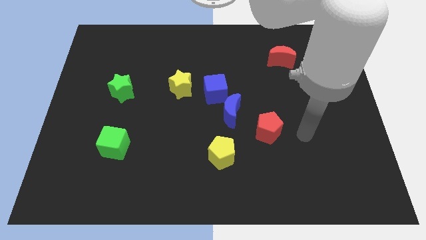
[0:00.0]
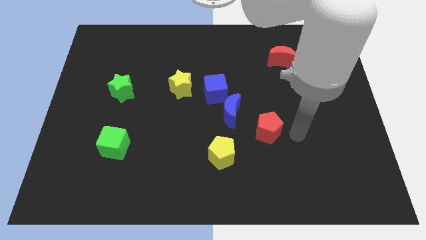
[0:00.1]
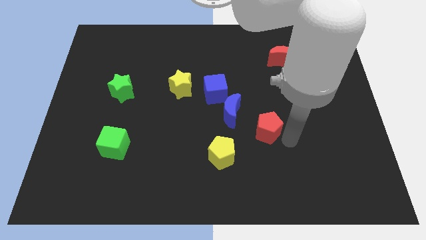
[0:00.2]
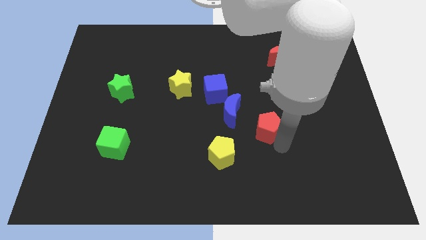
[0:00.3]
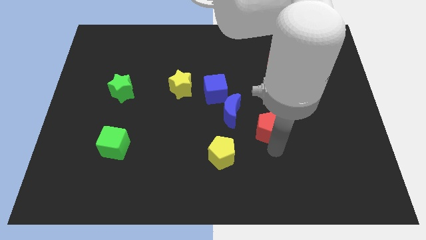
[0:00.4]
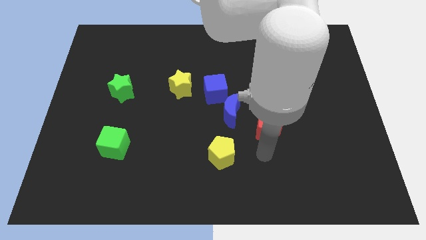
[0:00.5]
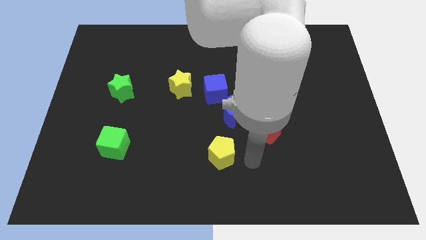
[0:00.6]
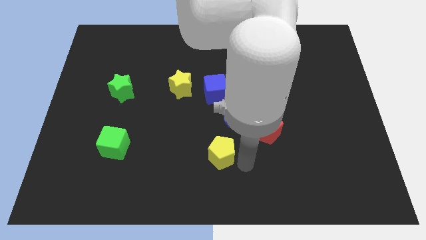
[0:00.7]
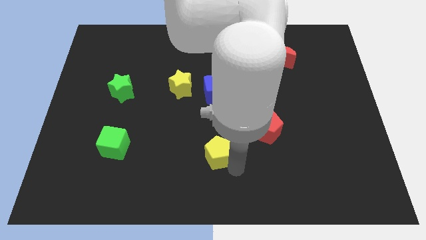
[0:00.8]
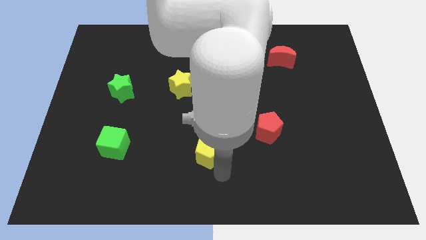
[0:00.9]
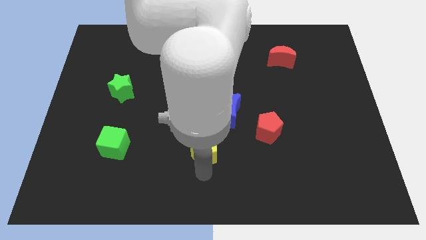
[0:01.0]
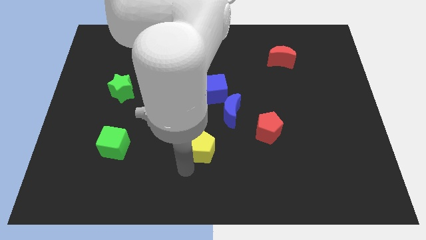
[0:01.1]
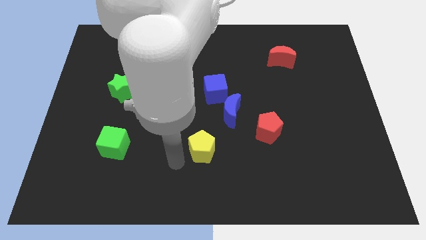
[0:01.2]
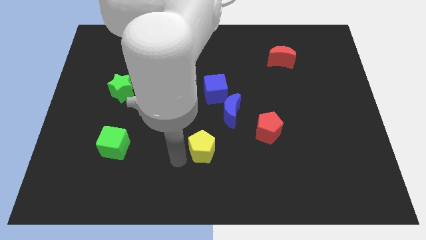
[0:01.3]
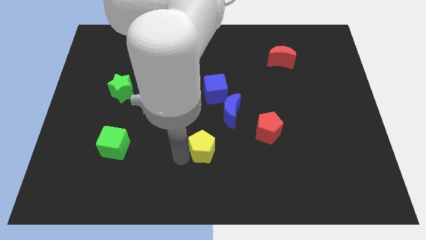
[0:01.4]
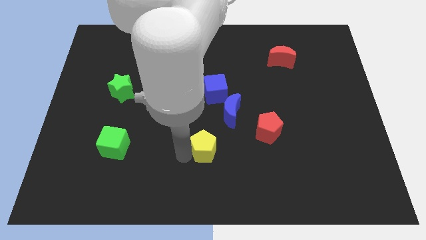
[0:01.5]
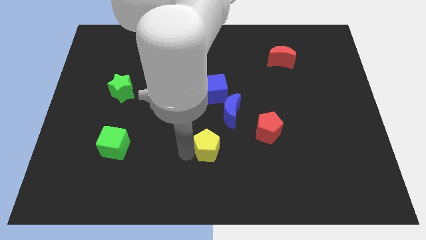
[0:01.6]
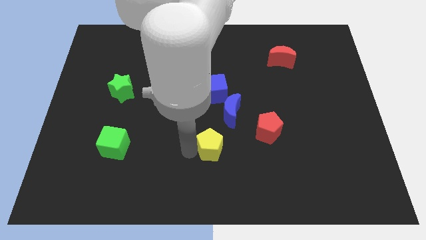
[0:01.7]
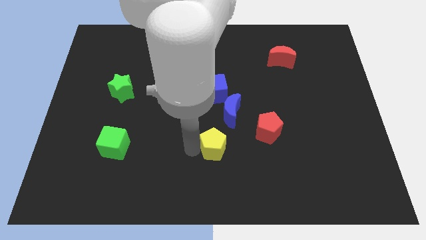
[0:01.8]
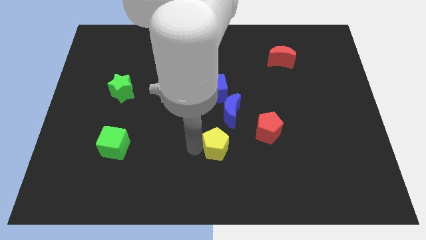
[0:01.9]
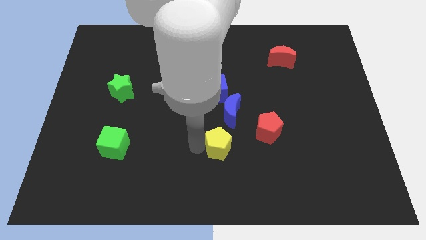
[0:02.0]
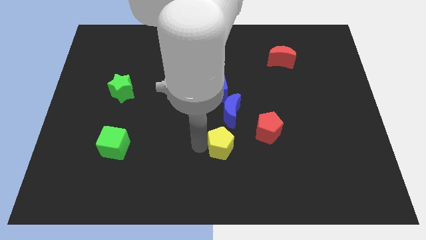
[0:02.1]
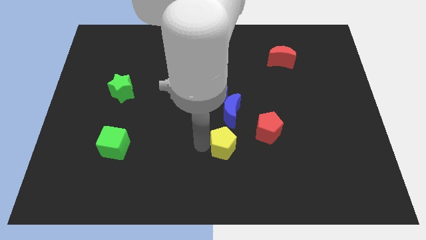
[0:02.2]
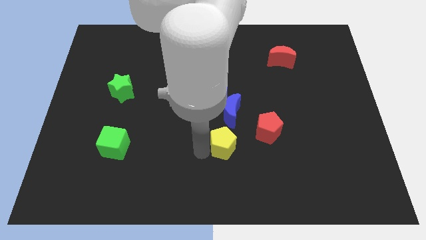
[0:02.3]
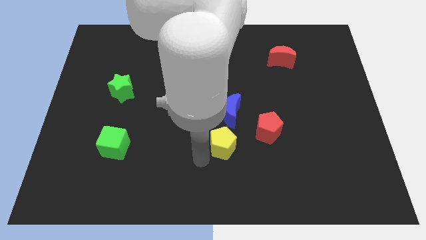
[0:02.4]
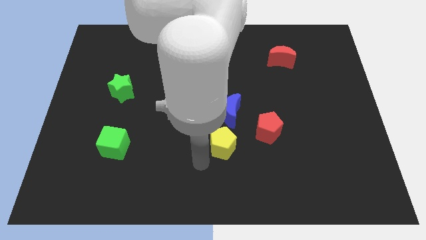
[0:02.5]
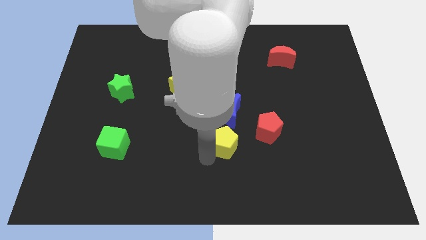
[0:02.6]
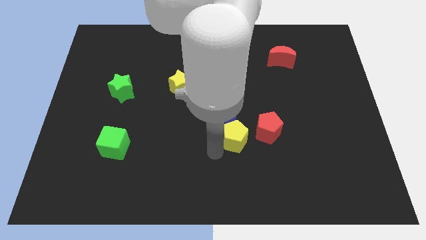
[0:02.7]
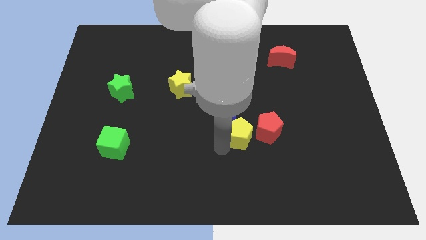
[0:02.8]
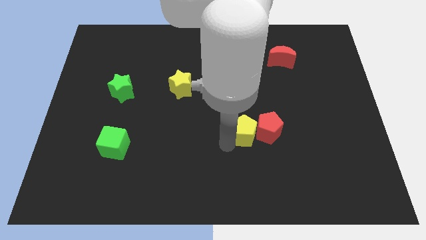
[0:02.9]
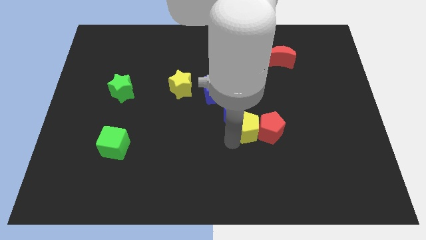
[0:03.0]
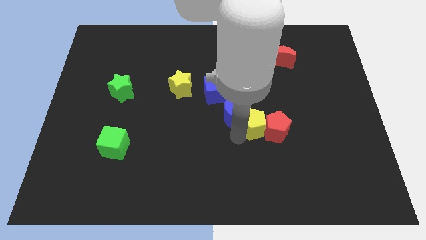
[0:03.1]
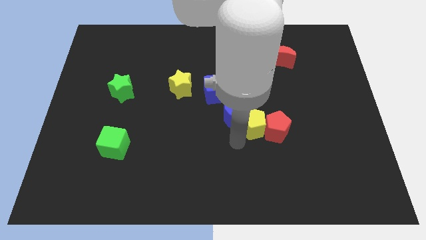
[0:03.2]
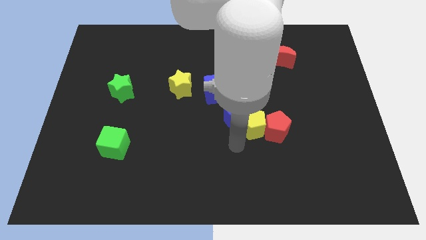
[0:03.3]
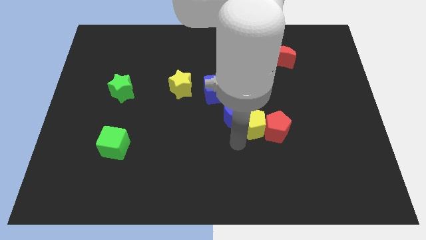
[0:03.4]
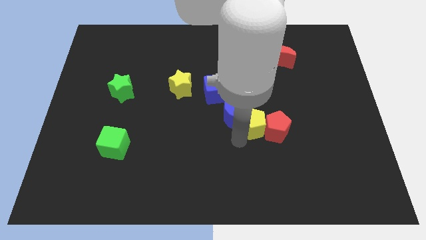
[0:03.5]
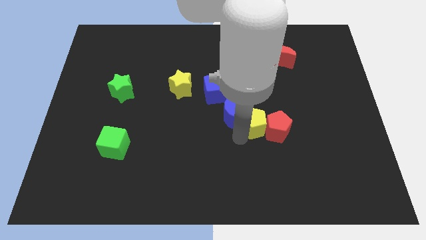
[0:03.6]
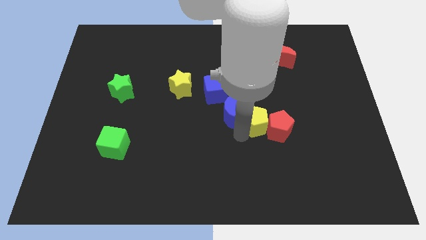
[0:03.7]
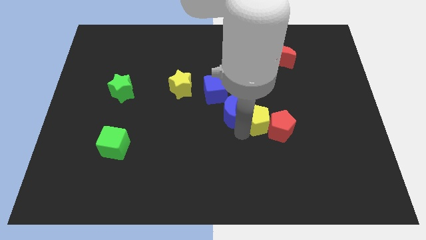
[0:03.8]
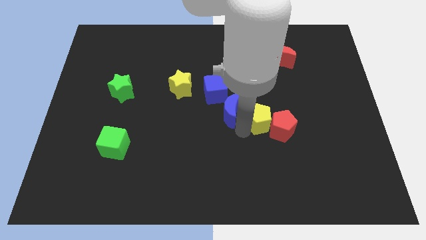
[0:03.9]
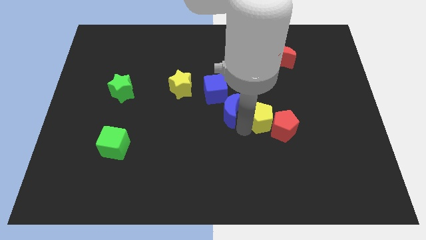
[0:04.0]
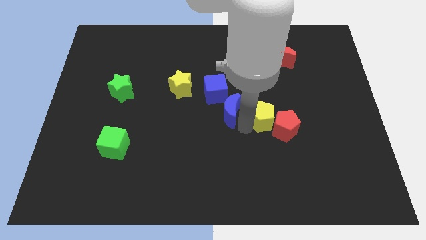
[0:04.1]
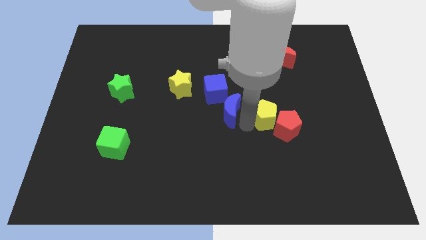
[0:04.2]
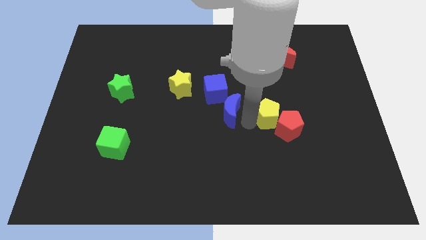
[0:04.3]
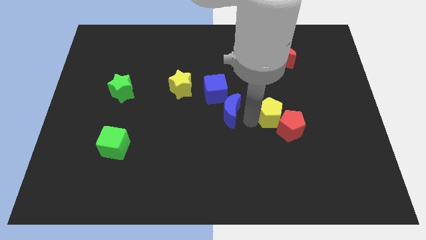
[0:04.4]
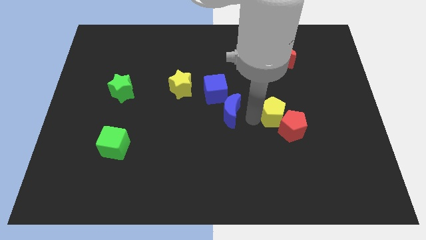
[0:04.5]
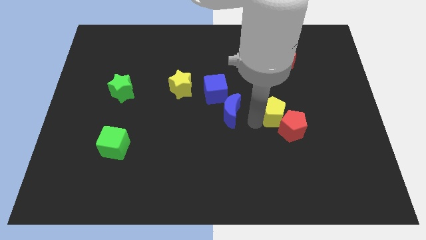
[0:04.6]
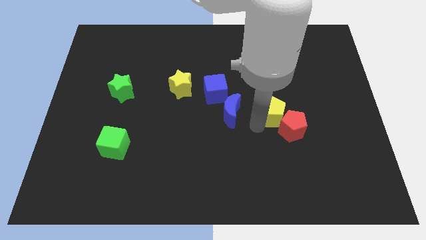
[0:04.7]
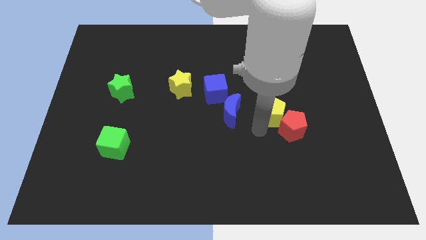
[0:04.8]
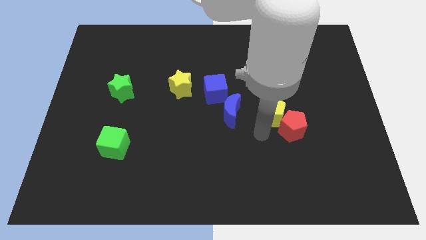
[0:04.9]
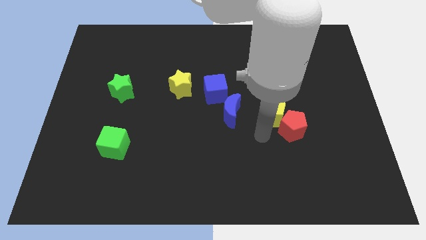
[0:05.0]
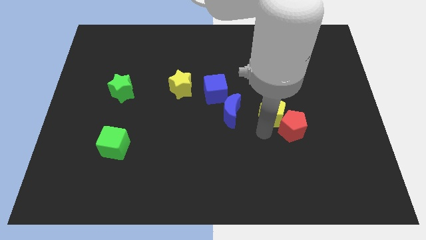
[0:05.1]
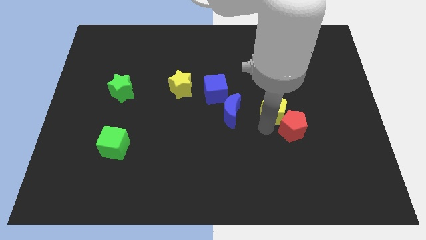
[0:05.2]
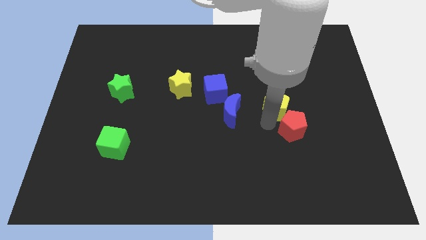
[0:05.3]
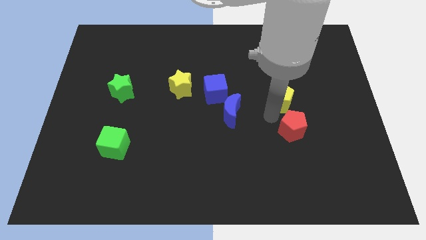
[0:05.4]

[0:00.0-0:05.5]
slide the yellow pentagon diagonally up and right

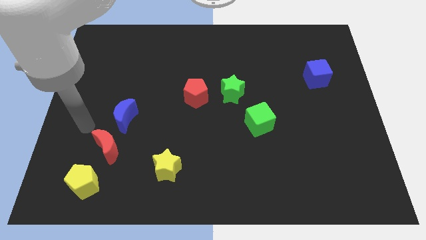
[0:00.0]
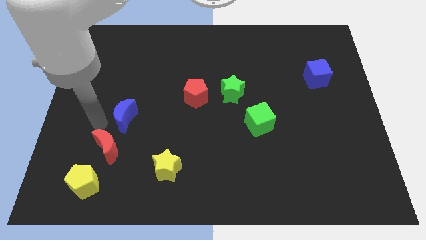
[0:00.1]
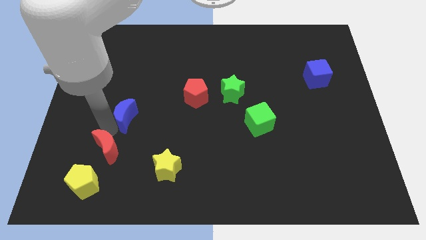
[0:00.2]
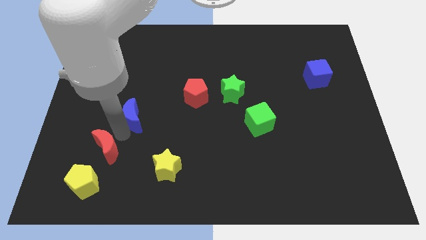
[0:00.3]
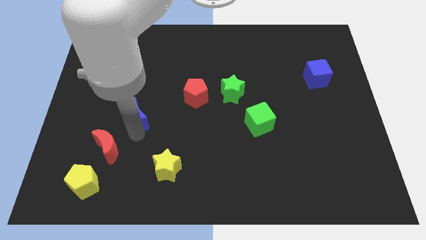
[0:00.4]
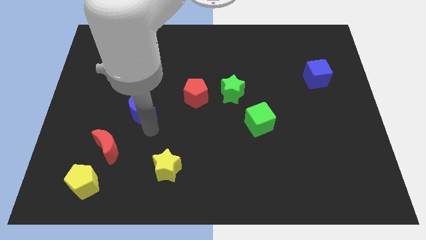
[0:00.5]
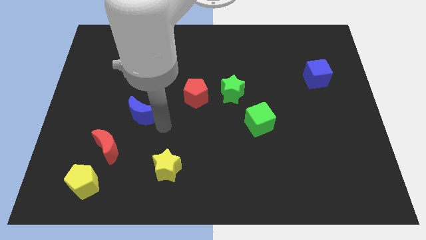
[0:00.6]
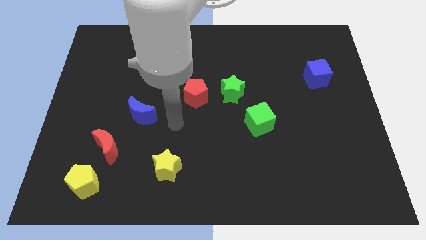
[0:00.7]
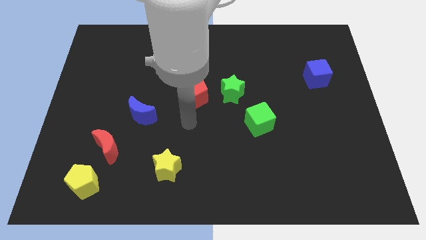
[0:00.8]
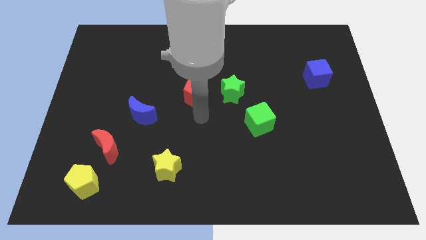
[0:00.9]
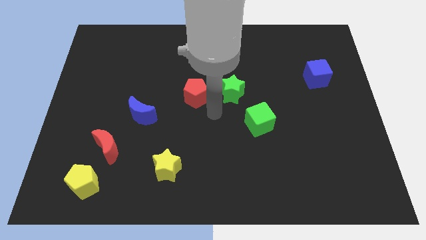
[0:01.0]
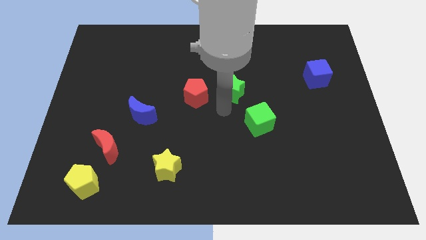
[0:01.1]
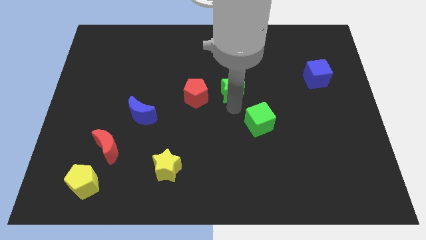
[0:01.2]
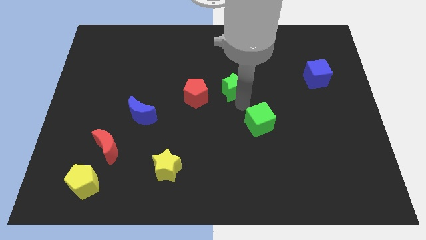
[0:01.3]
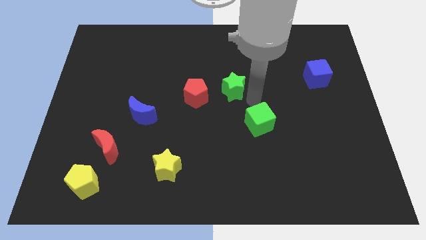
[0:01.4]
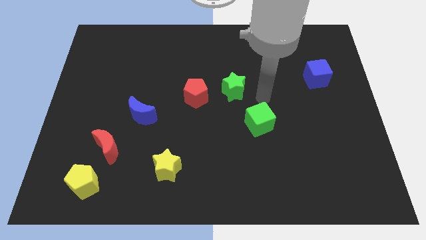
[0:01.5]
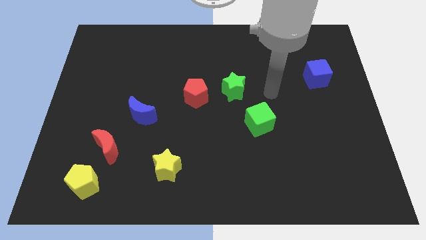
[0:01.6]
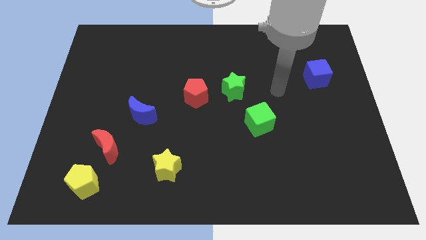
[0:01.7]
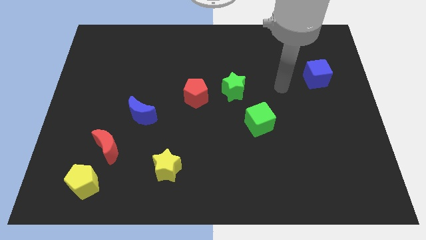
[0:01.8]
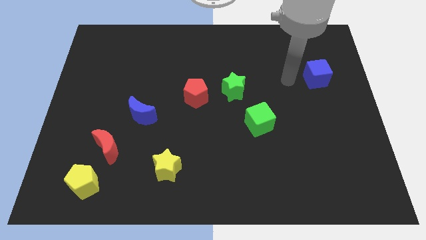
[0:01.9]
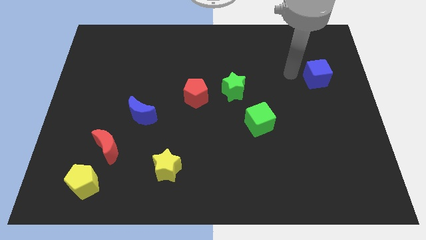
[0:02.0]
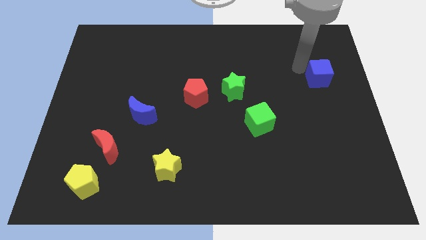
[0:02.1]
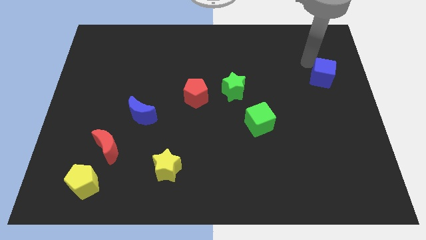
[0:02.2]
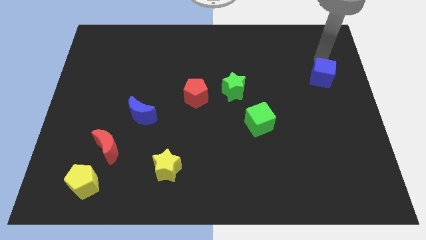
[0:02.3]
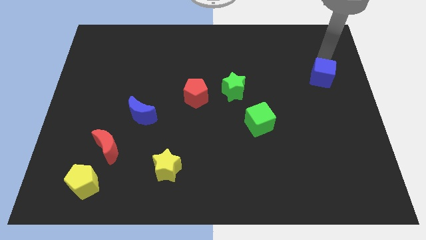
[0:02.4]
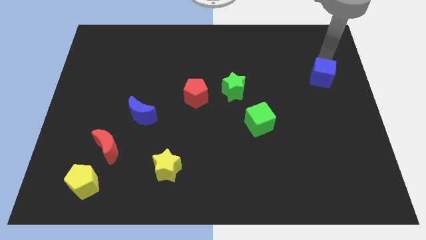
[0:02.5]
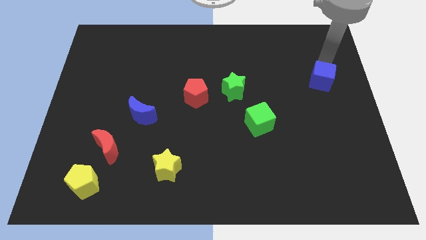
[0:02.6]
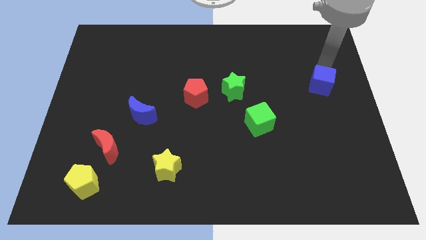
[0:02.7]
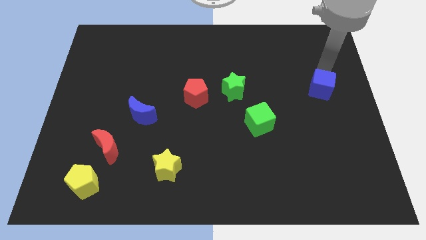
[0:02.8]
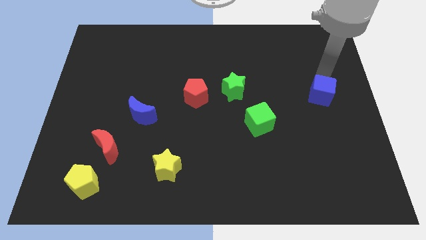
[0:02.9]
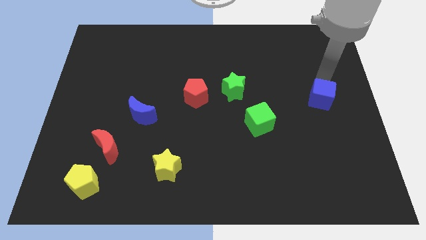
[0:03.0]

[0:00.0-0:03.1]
slightly slide the blue cube down
